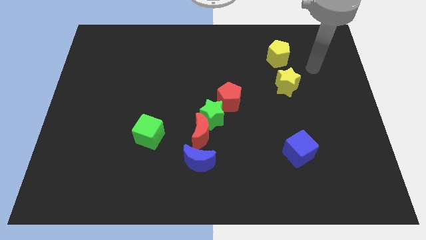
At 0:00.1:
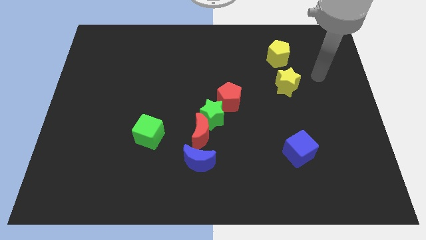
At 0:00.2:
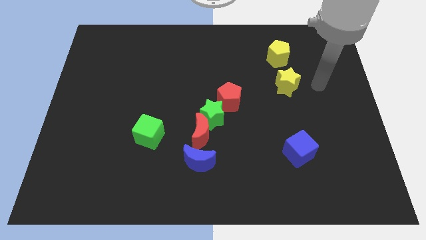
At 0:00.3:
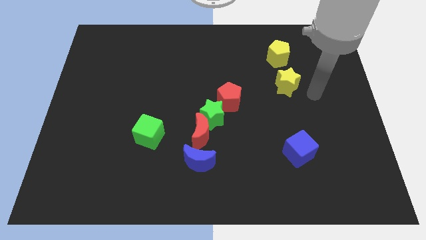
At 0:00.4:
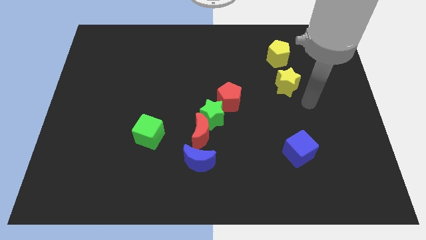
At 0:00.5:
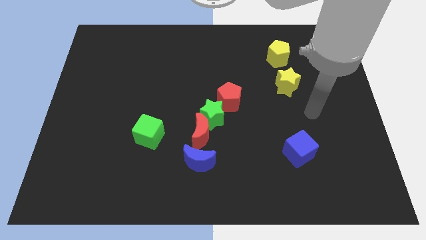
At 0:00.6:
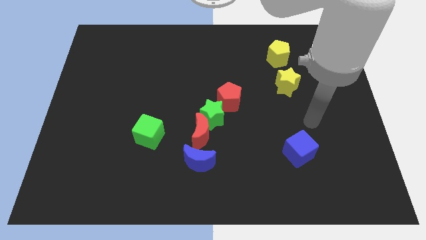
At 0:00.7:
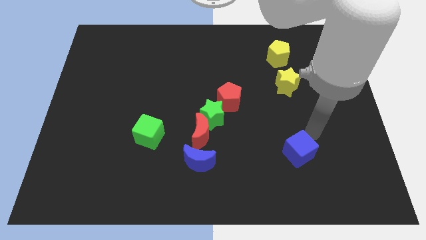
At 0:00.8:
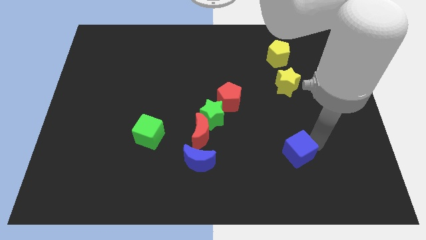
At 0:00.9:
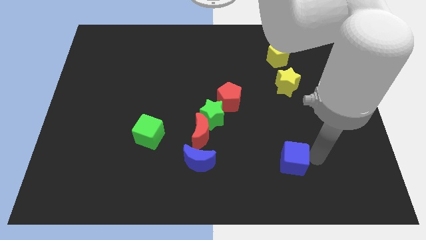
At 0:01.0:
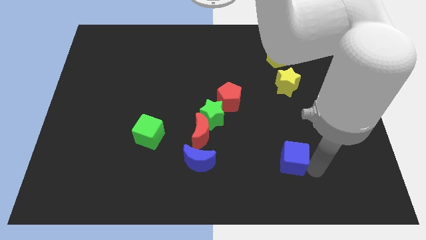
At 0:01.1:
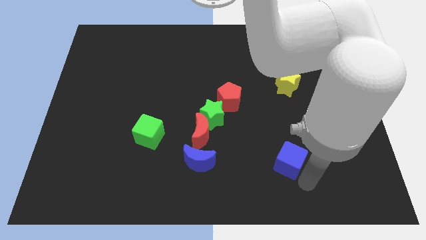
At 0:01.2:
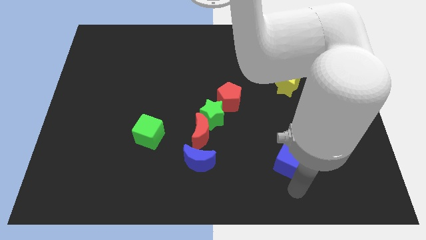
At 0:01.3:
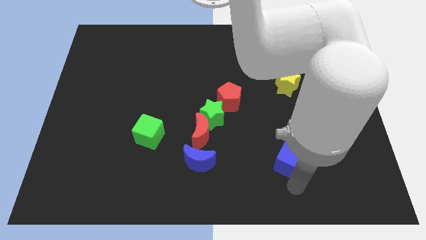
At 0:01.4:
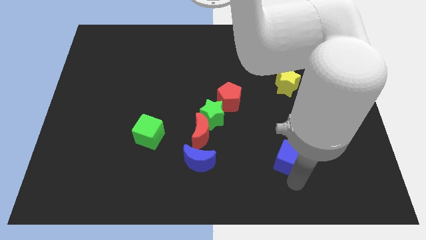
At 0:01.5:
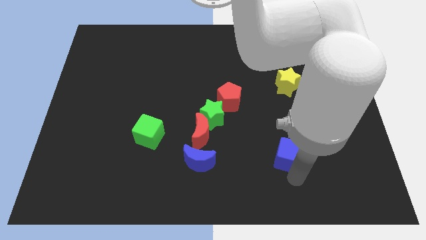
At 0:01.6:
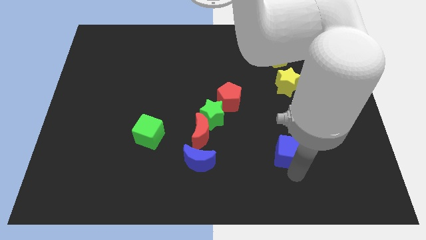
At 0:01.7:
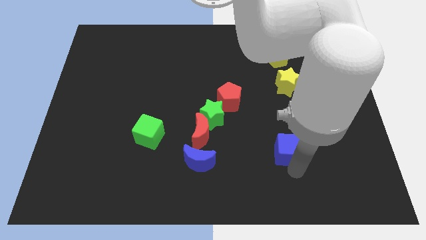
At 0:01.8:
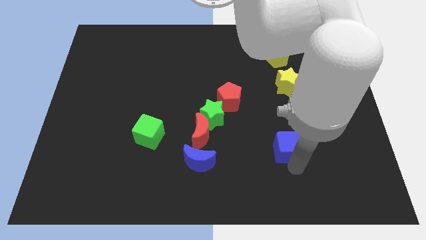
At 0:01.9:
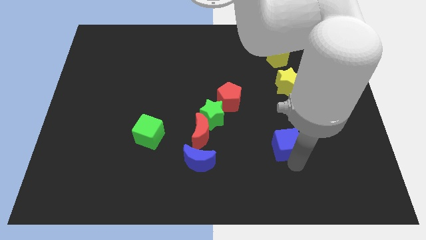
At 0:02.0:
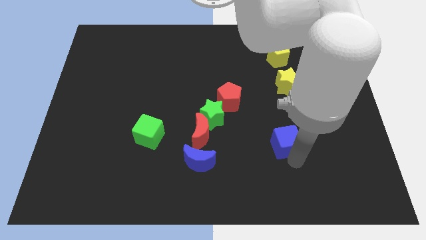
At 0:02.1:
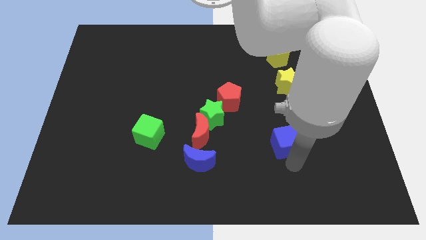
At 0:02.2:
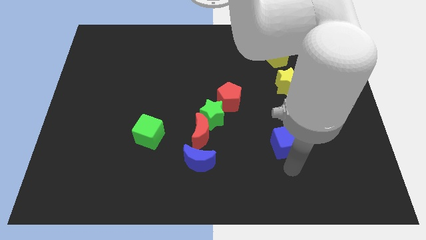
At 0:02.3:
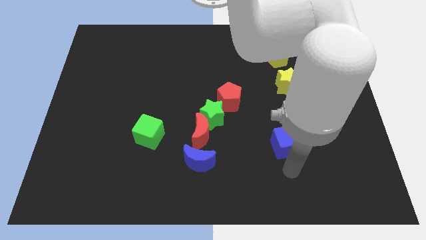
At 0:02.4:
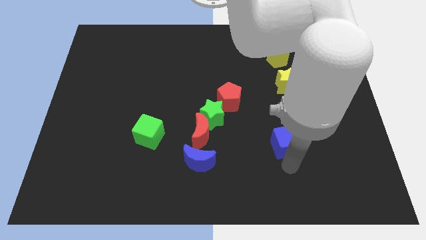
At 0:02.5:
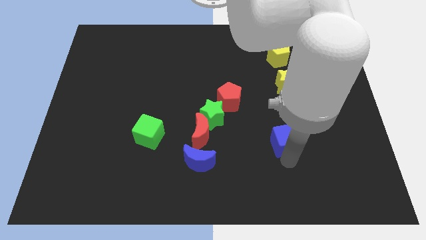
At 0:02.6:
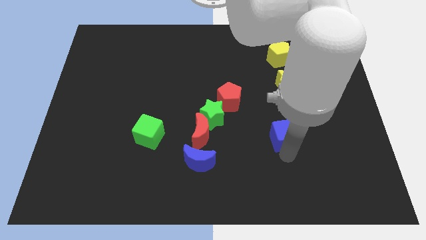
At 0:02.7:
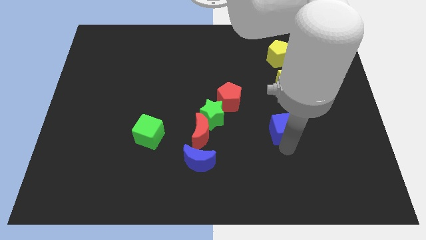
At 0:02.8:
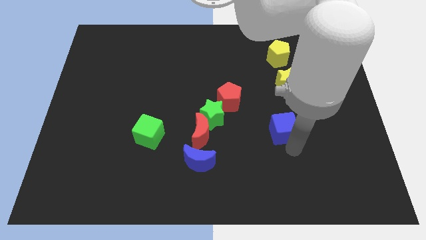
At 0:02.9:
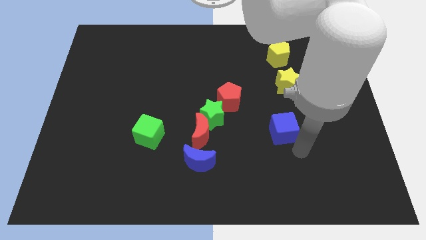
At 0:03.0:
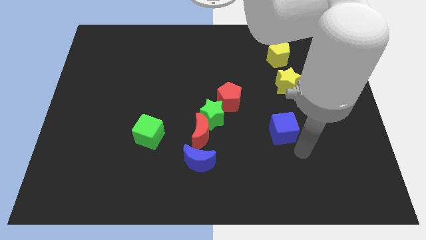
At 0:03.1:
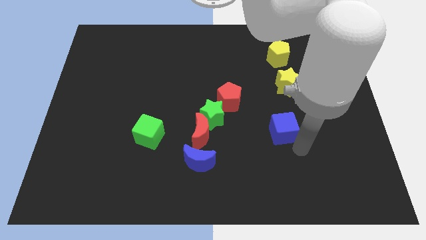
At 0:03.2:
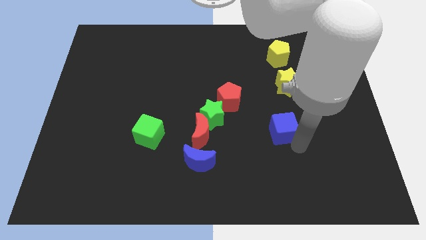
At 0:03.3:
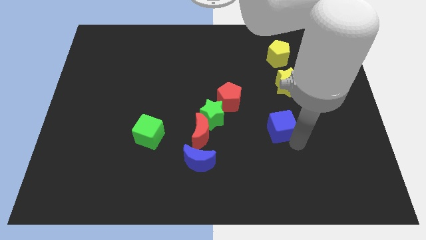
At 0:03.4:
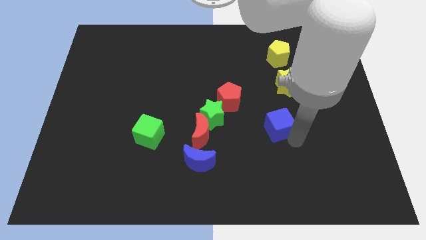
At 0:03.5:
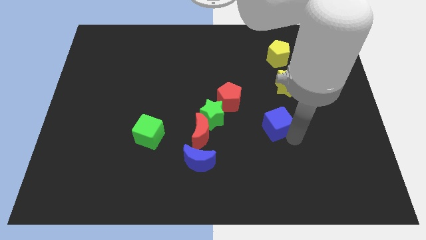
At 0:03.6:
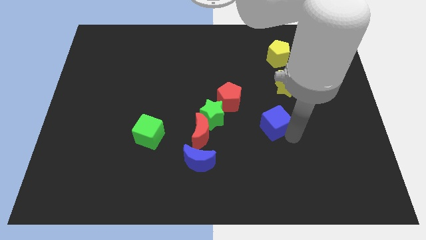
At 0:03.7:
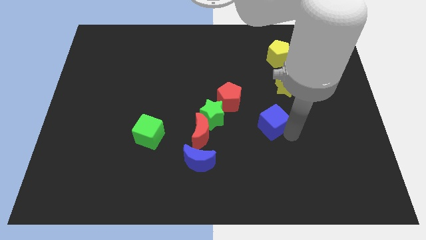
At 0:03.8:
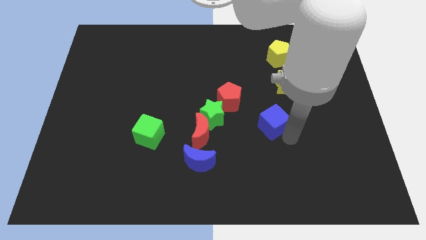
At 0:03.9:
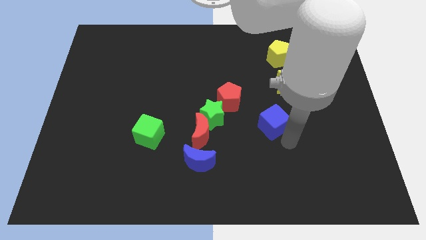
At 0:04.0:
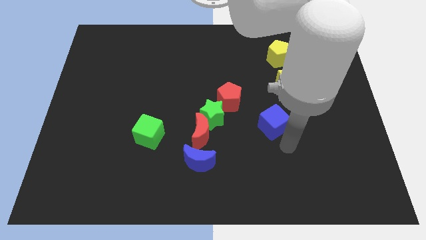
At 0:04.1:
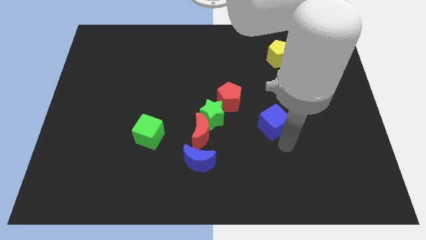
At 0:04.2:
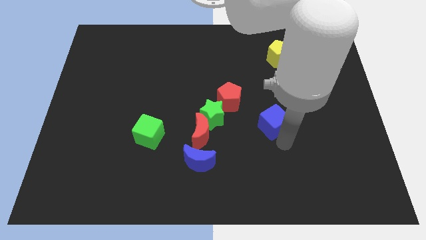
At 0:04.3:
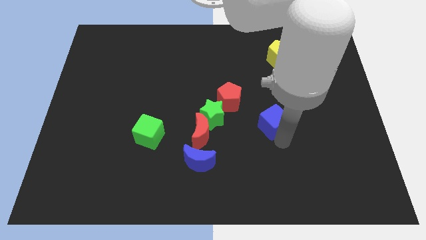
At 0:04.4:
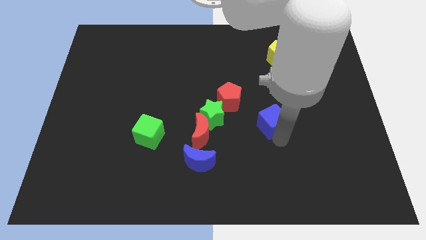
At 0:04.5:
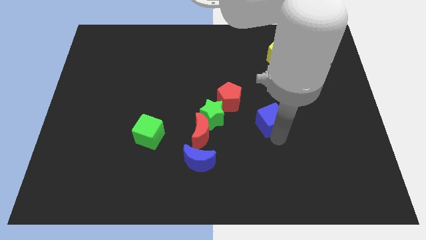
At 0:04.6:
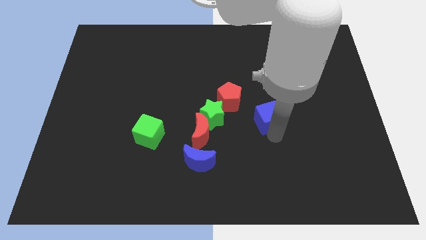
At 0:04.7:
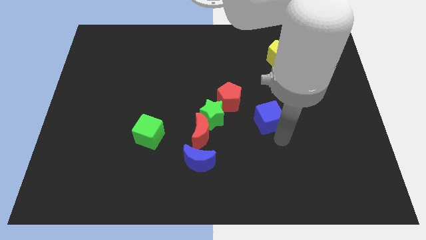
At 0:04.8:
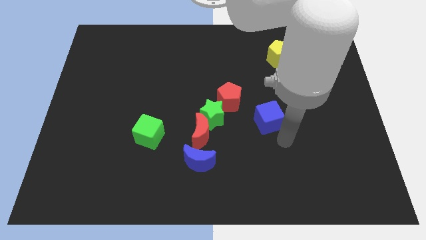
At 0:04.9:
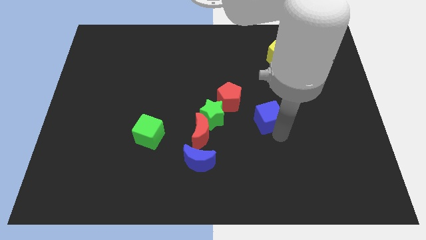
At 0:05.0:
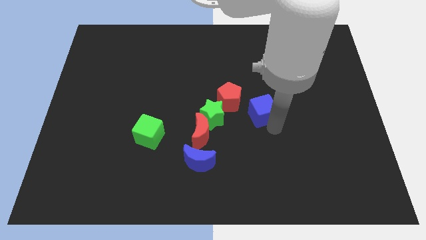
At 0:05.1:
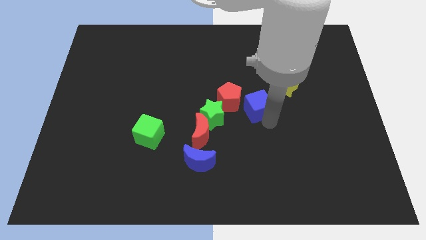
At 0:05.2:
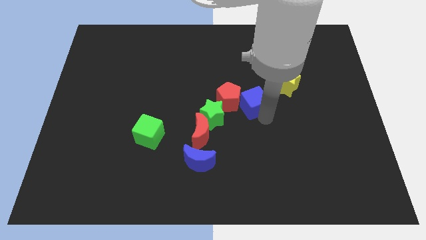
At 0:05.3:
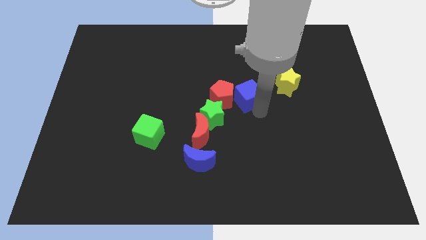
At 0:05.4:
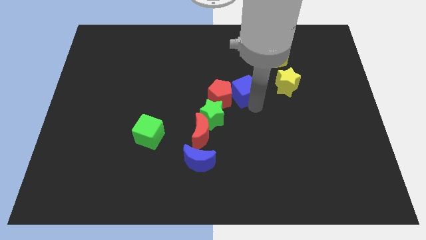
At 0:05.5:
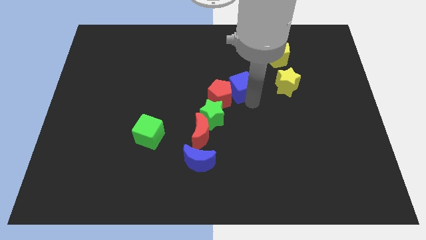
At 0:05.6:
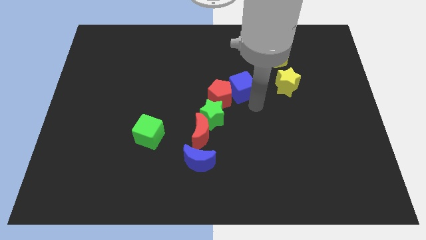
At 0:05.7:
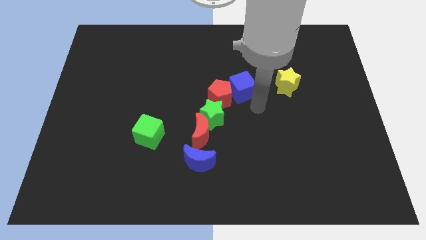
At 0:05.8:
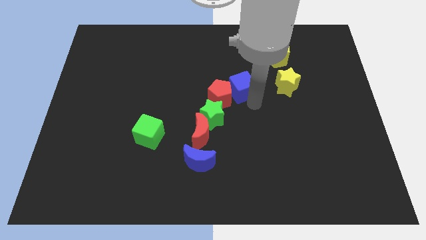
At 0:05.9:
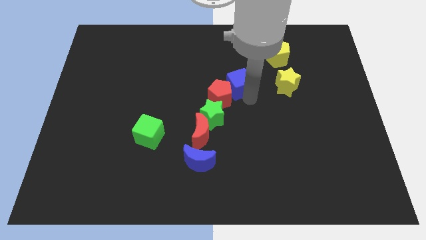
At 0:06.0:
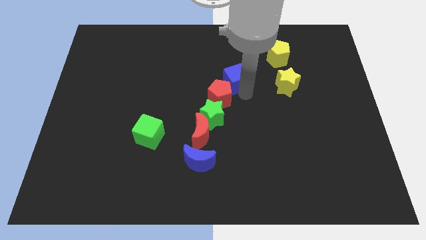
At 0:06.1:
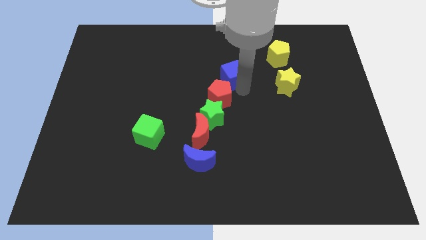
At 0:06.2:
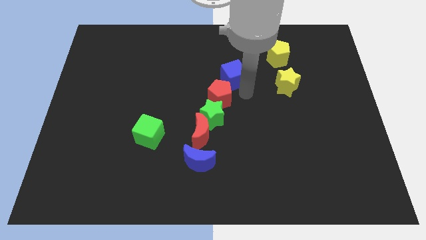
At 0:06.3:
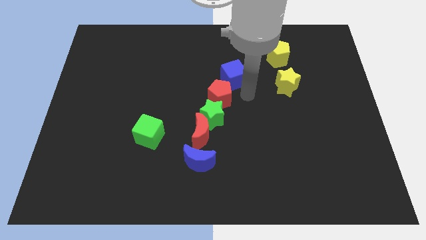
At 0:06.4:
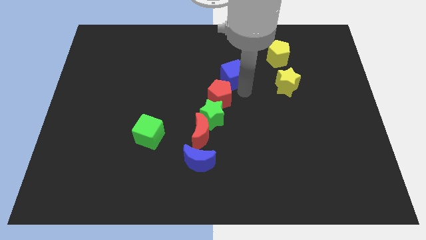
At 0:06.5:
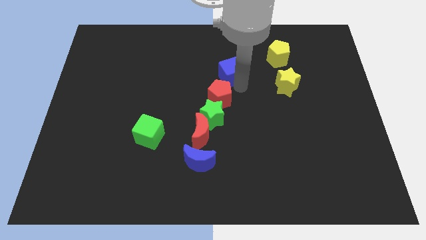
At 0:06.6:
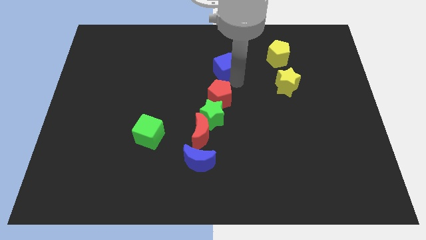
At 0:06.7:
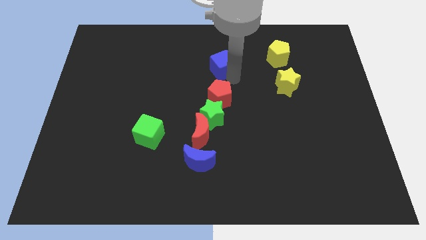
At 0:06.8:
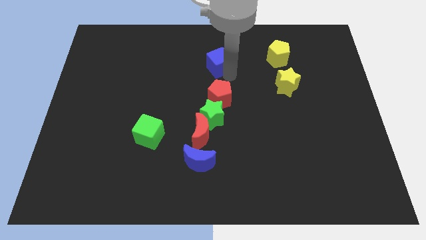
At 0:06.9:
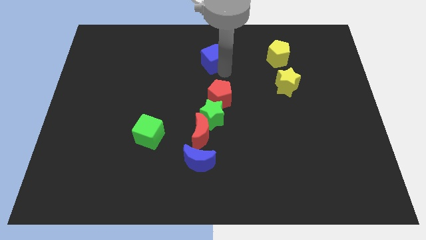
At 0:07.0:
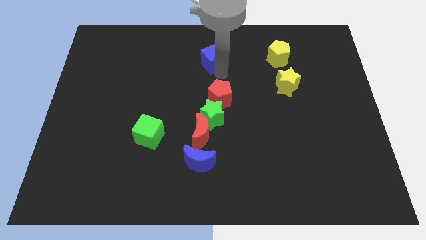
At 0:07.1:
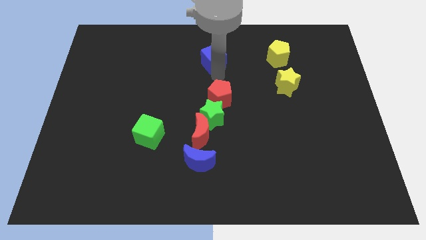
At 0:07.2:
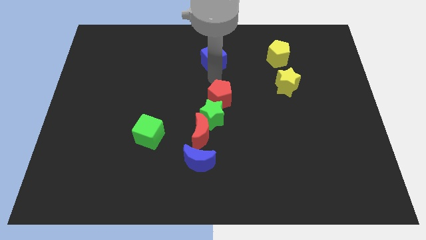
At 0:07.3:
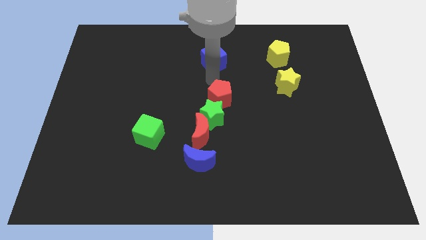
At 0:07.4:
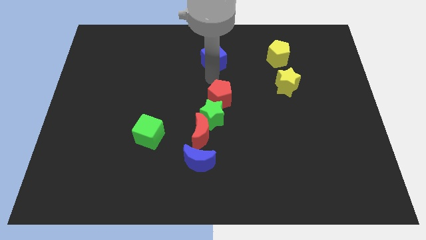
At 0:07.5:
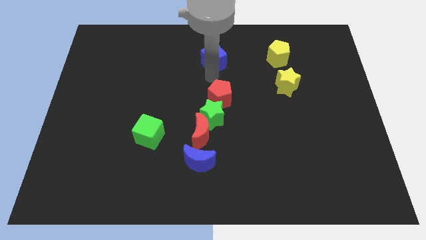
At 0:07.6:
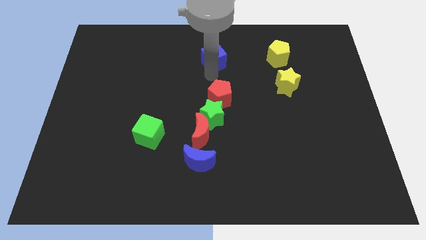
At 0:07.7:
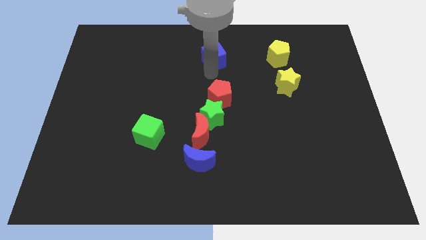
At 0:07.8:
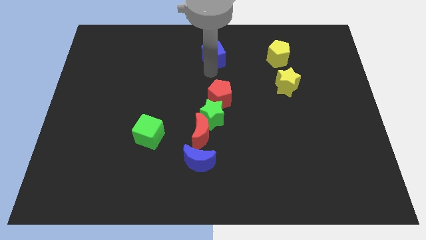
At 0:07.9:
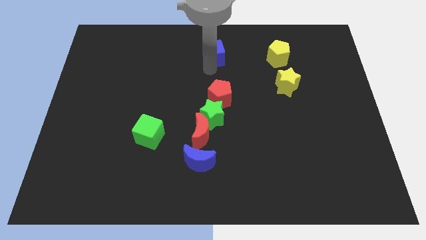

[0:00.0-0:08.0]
push the blue cube to the top
